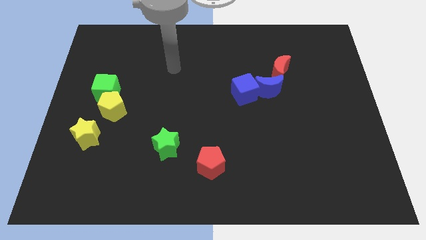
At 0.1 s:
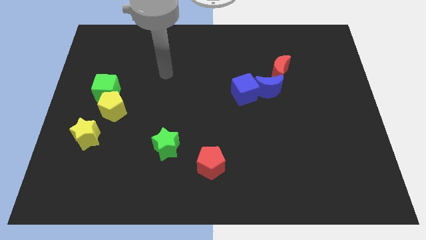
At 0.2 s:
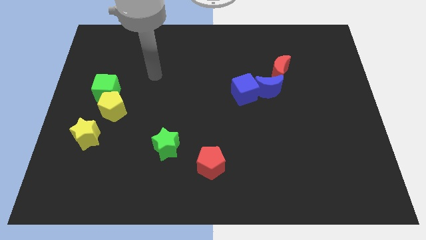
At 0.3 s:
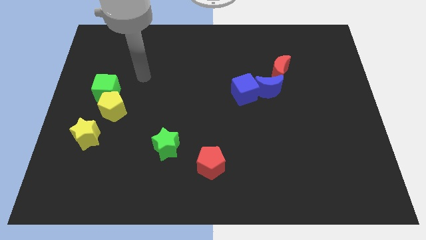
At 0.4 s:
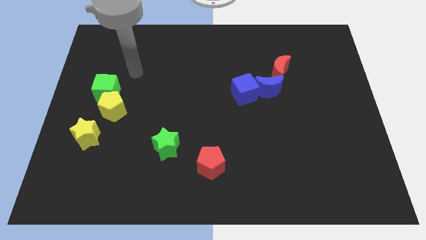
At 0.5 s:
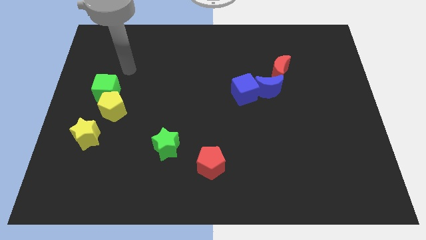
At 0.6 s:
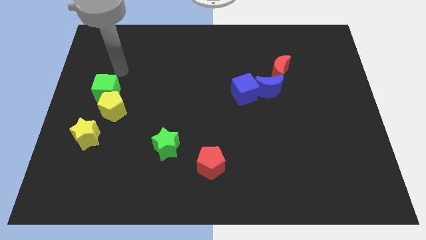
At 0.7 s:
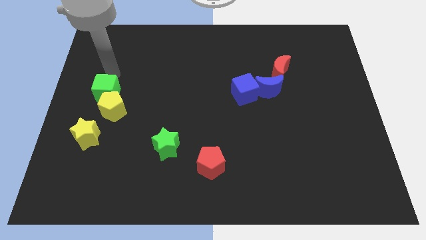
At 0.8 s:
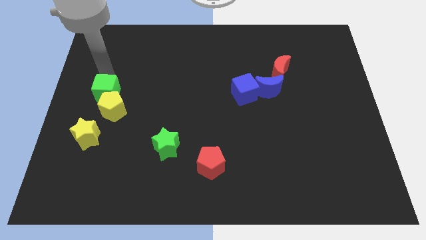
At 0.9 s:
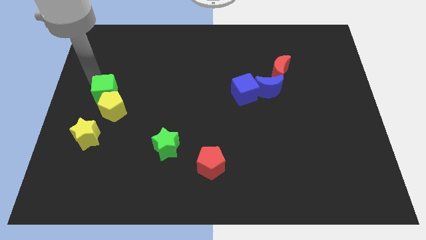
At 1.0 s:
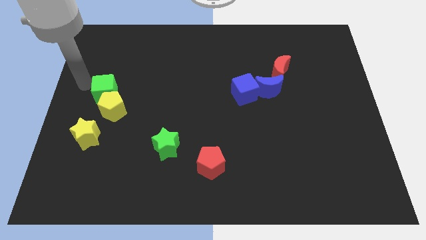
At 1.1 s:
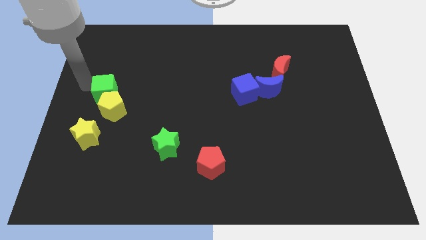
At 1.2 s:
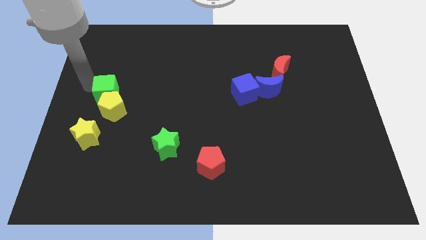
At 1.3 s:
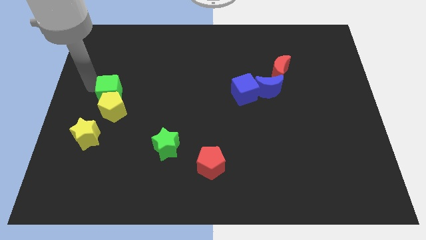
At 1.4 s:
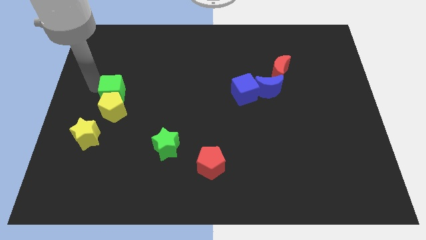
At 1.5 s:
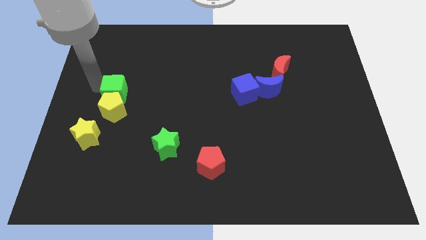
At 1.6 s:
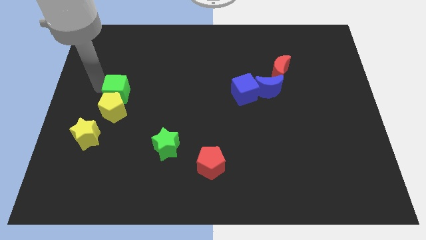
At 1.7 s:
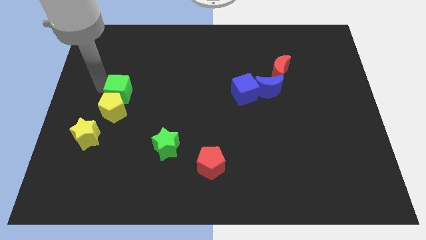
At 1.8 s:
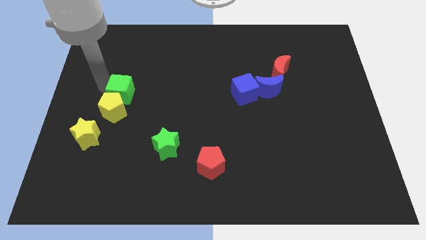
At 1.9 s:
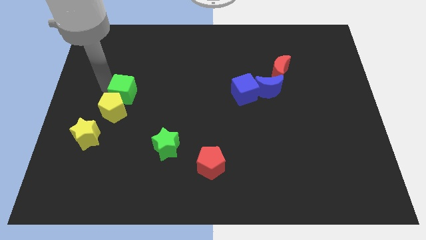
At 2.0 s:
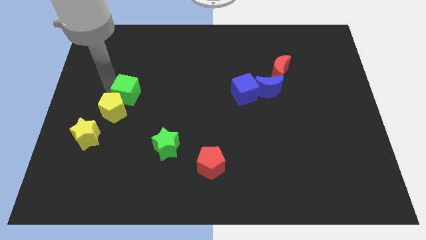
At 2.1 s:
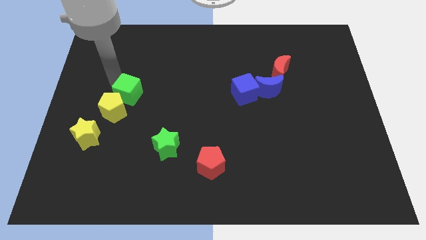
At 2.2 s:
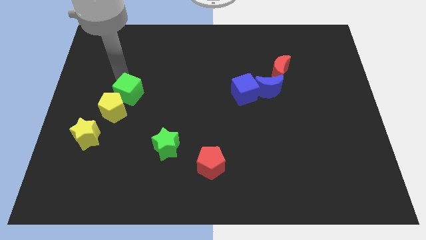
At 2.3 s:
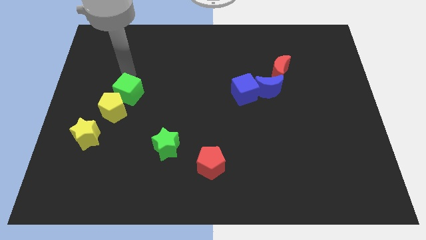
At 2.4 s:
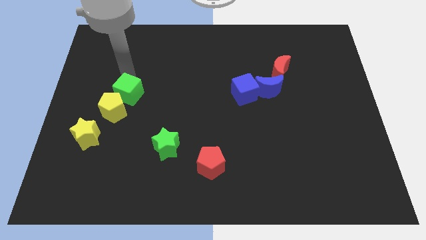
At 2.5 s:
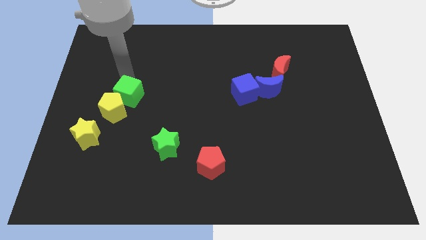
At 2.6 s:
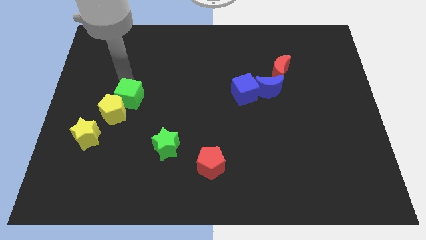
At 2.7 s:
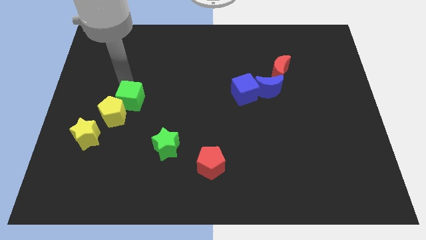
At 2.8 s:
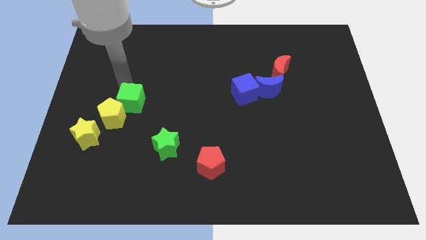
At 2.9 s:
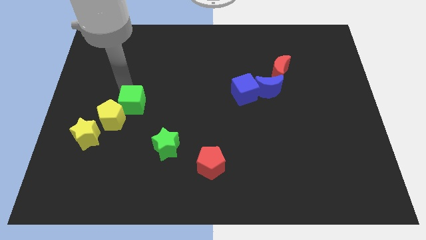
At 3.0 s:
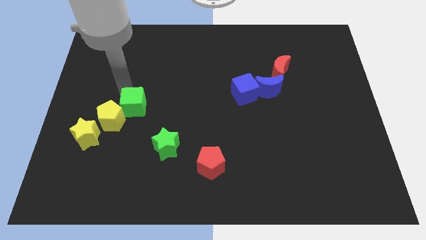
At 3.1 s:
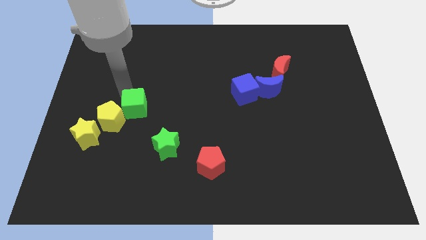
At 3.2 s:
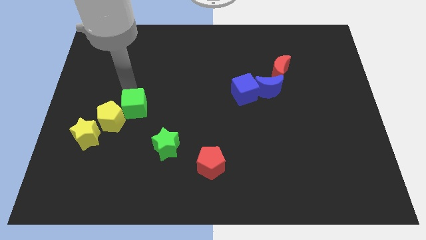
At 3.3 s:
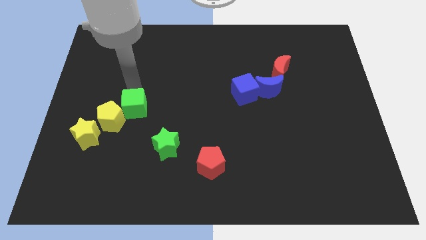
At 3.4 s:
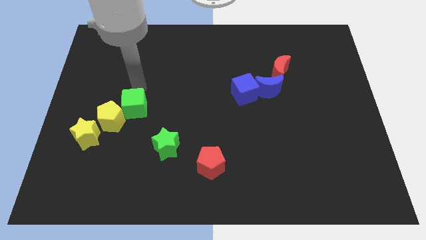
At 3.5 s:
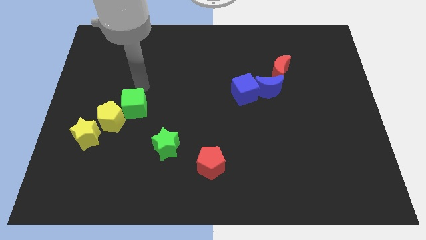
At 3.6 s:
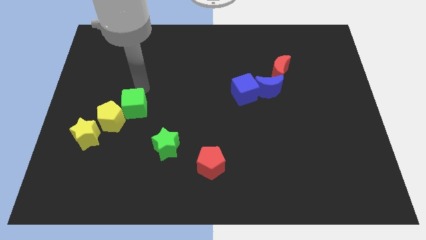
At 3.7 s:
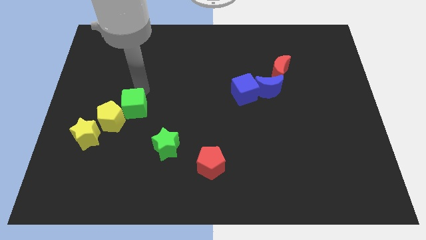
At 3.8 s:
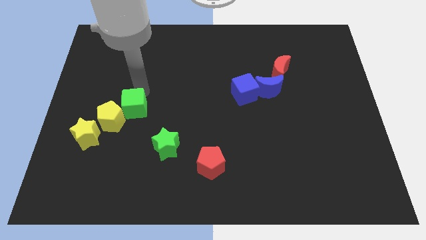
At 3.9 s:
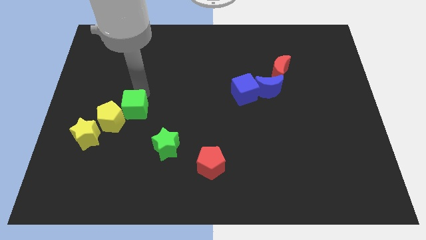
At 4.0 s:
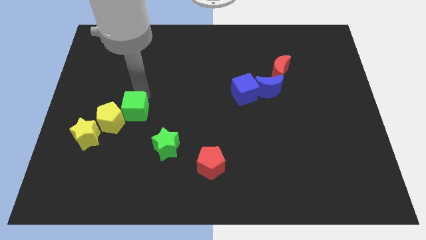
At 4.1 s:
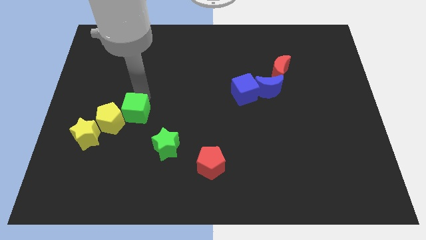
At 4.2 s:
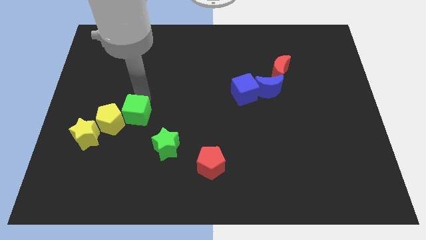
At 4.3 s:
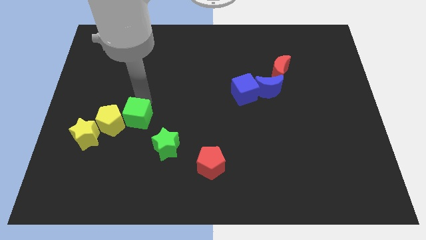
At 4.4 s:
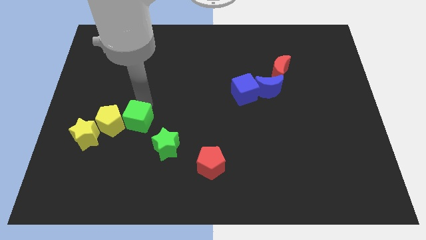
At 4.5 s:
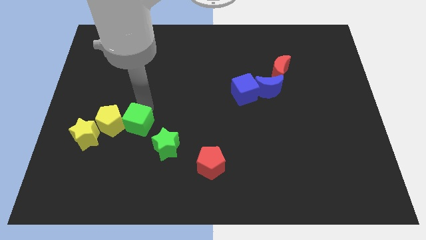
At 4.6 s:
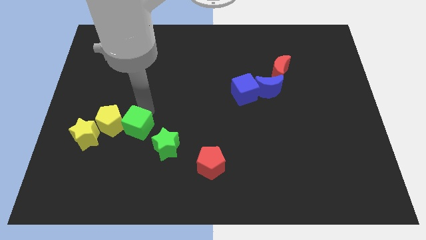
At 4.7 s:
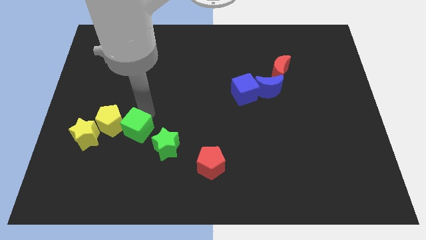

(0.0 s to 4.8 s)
push the green cube a little down

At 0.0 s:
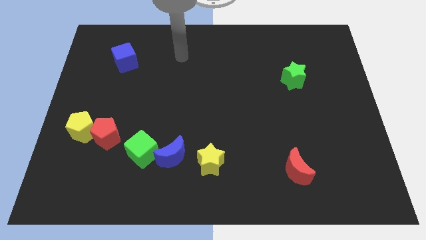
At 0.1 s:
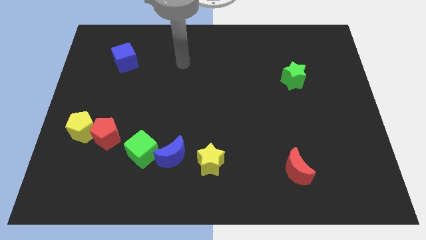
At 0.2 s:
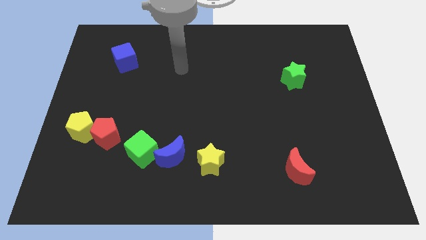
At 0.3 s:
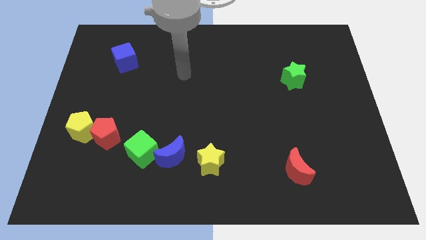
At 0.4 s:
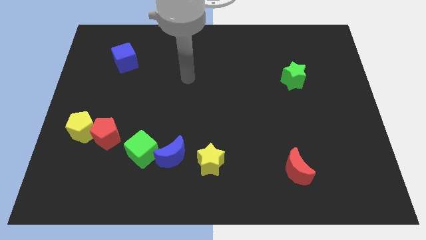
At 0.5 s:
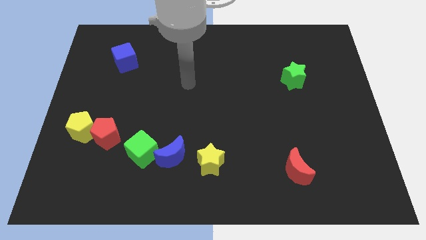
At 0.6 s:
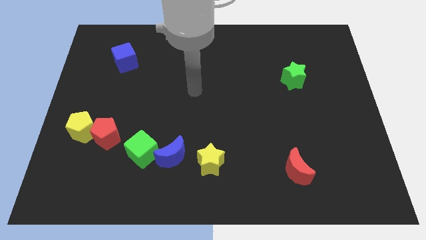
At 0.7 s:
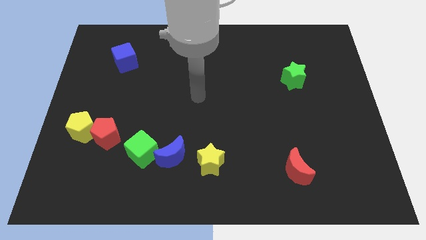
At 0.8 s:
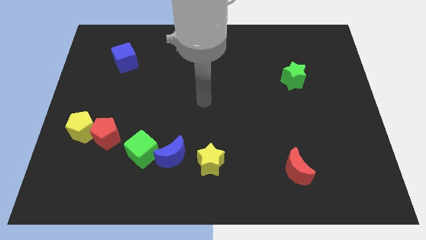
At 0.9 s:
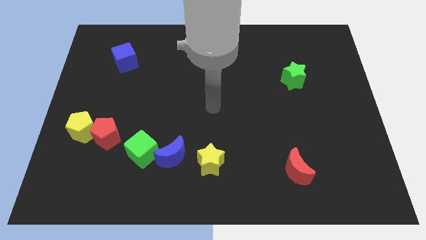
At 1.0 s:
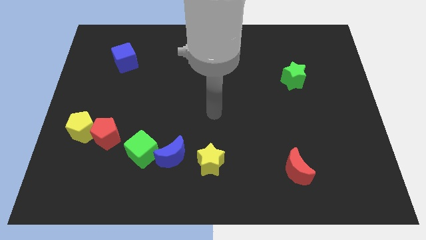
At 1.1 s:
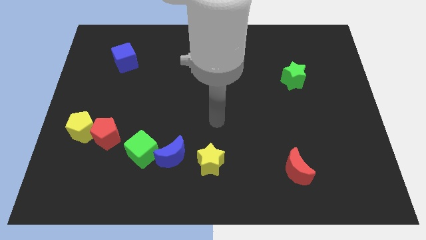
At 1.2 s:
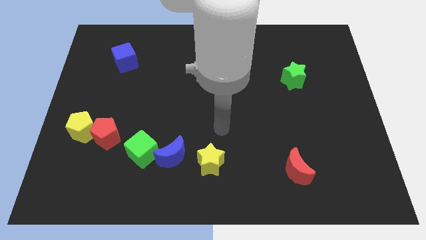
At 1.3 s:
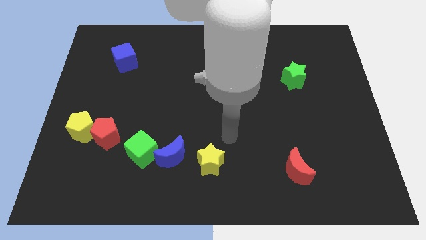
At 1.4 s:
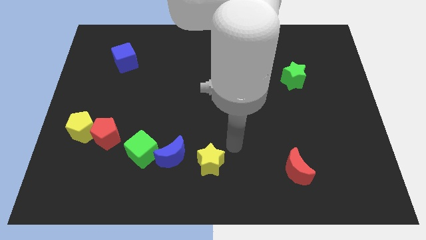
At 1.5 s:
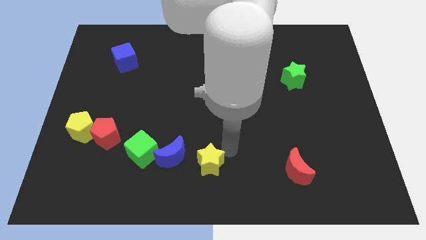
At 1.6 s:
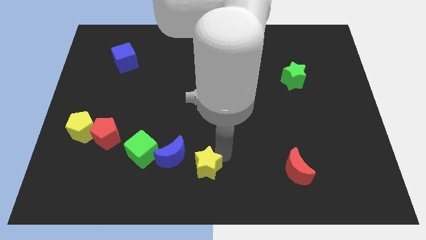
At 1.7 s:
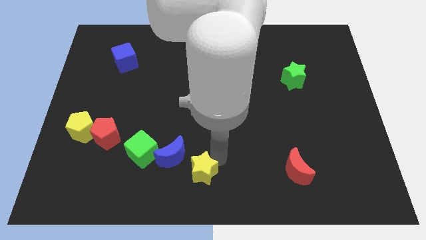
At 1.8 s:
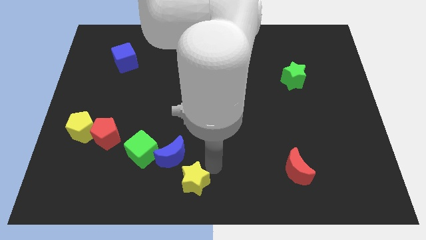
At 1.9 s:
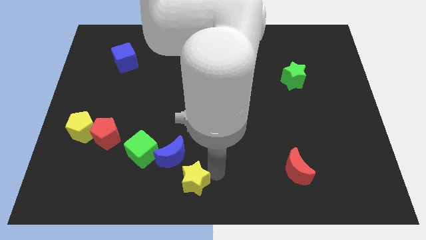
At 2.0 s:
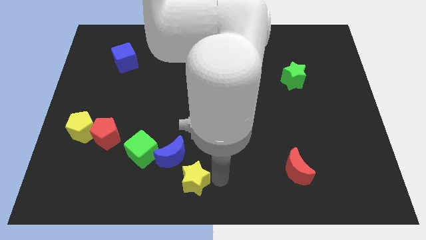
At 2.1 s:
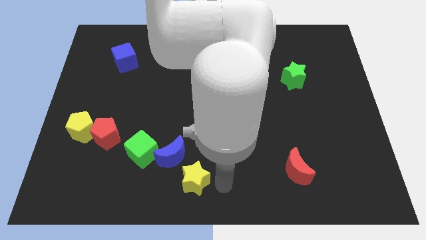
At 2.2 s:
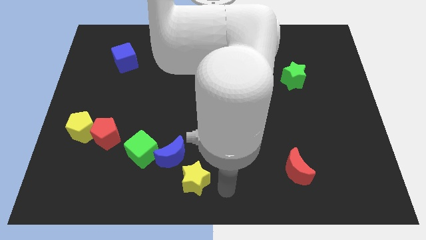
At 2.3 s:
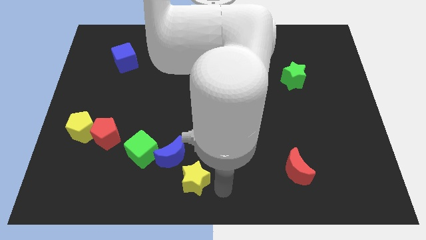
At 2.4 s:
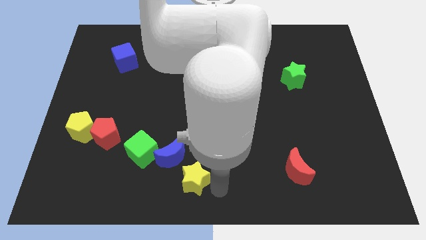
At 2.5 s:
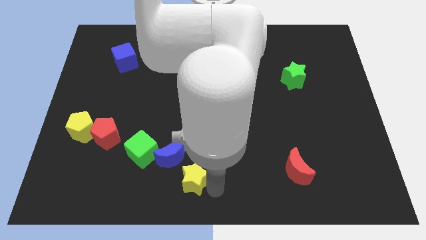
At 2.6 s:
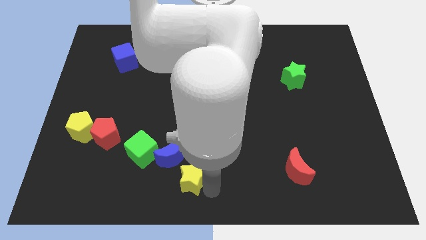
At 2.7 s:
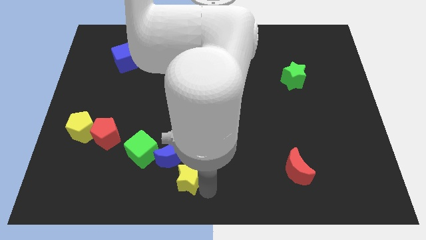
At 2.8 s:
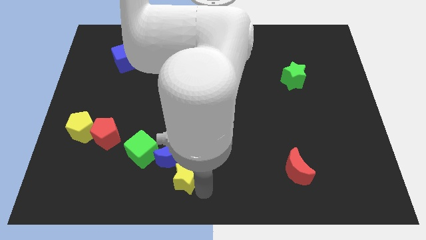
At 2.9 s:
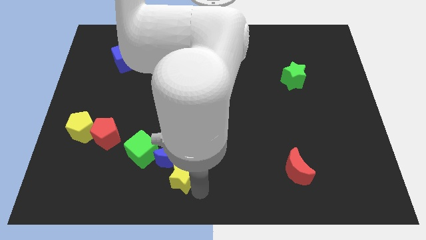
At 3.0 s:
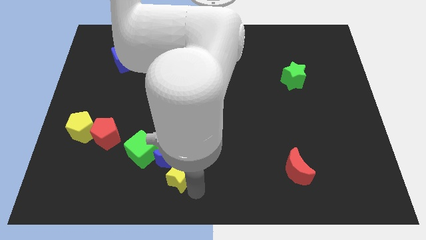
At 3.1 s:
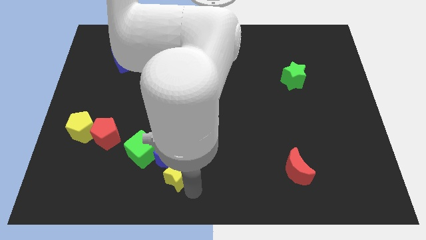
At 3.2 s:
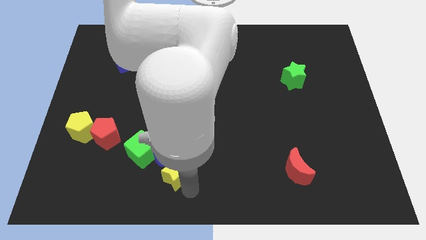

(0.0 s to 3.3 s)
move the yellow star to the left a little bit

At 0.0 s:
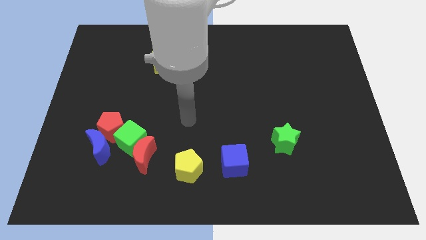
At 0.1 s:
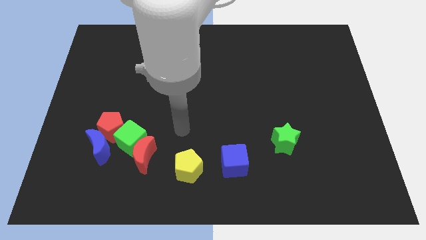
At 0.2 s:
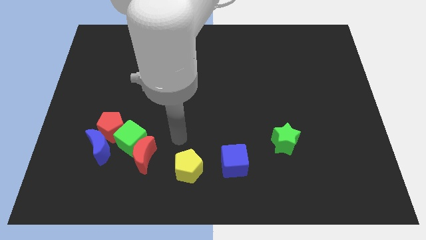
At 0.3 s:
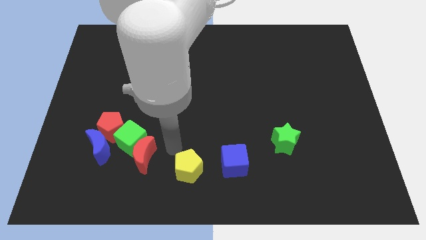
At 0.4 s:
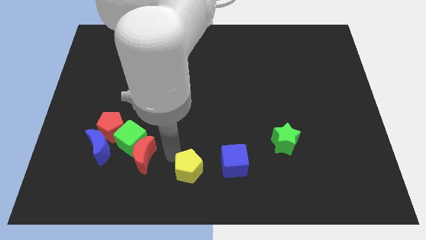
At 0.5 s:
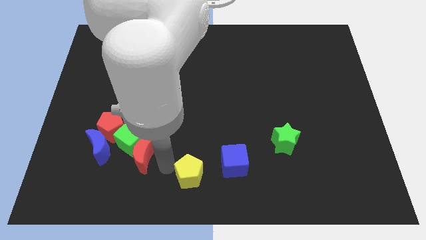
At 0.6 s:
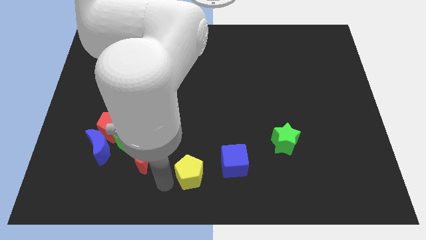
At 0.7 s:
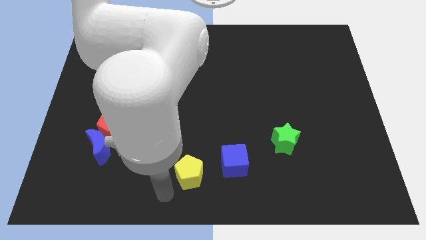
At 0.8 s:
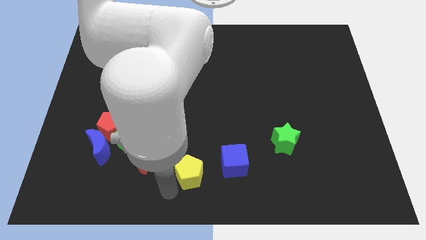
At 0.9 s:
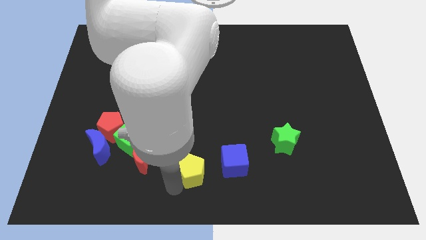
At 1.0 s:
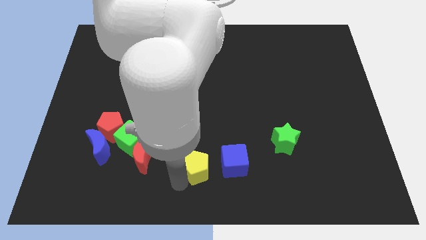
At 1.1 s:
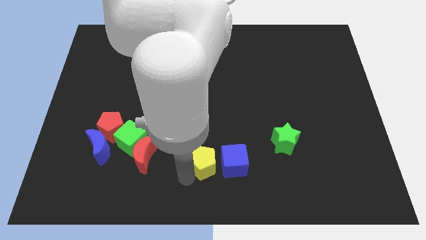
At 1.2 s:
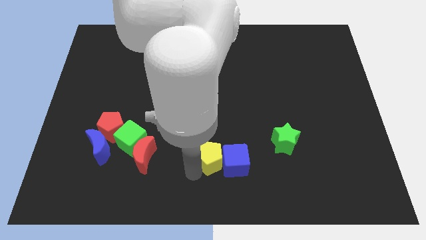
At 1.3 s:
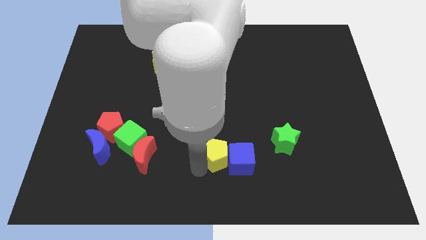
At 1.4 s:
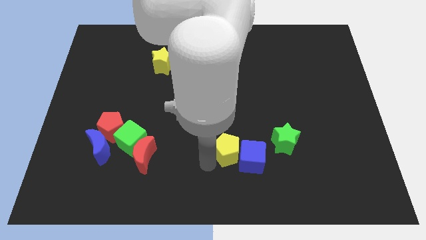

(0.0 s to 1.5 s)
slightly move the yellow pentagon up and then to the right
